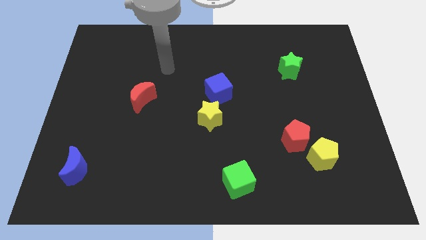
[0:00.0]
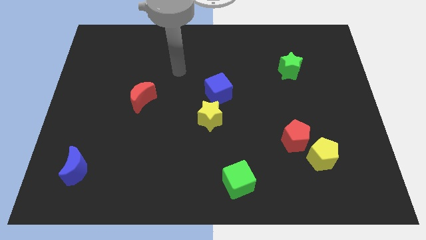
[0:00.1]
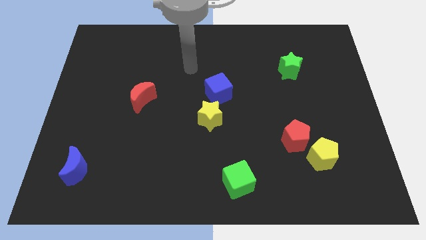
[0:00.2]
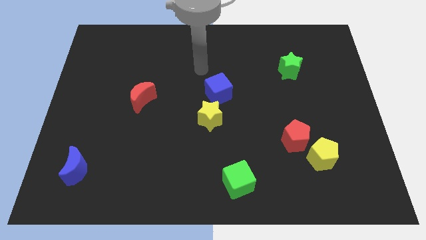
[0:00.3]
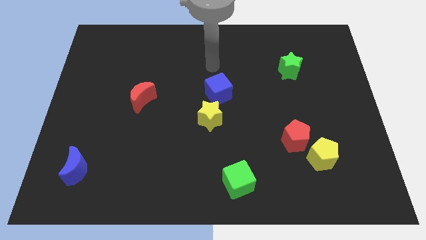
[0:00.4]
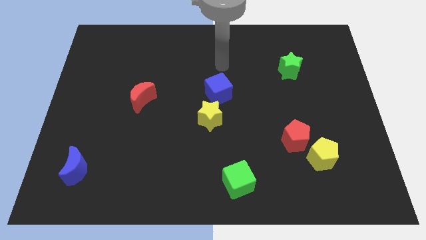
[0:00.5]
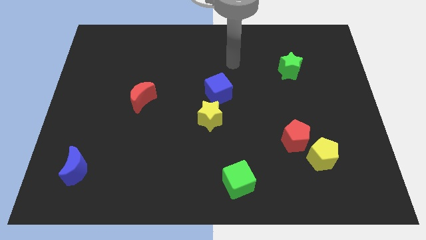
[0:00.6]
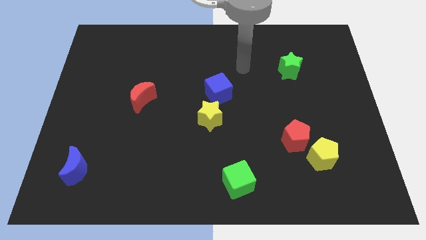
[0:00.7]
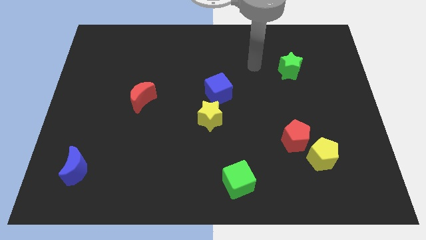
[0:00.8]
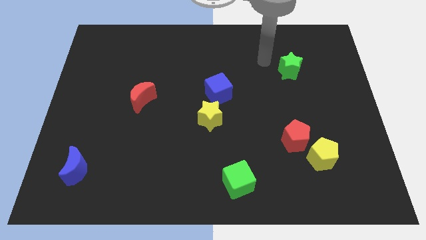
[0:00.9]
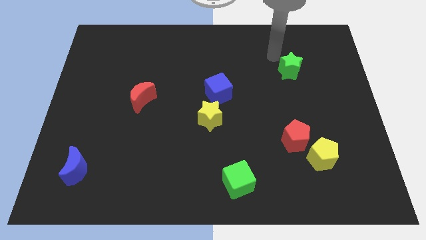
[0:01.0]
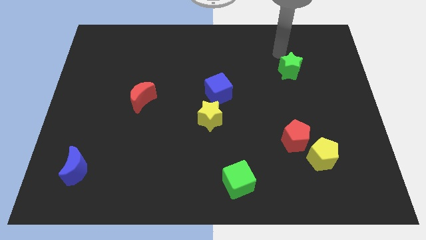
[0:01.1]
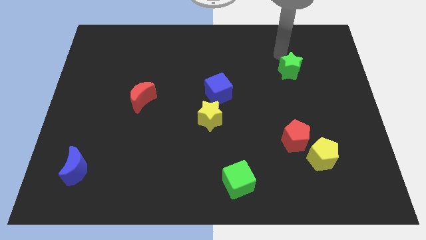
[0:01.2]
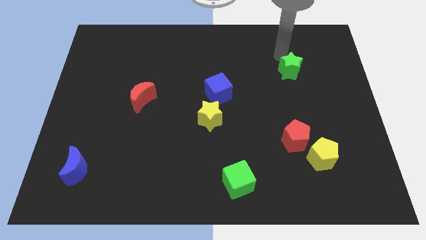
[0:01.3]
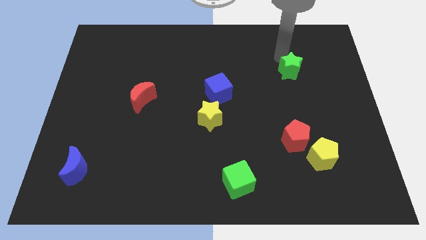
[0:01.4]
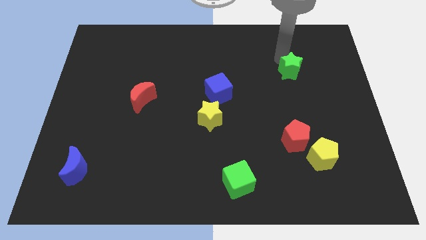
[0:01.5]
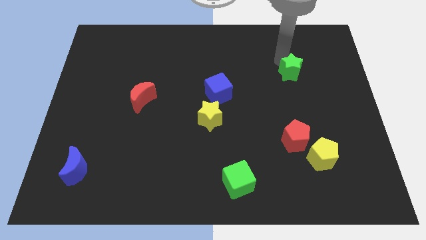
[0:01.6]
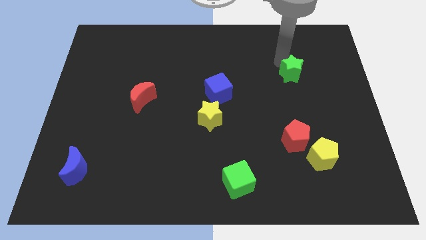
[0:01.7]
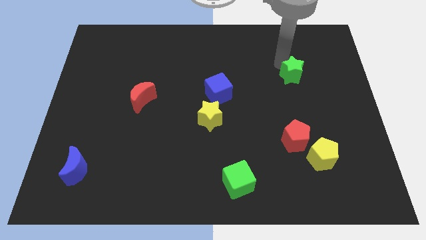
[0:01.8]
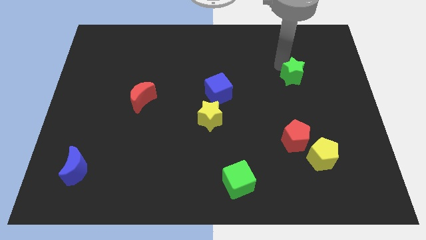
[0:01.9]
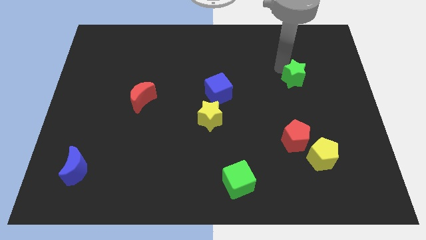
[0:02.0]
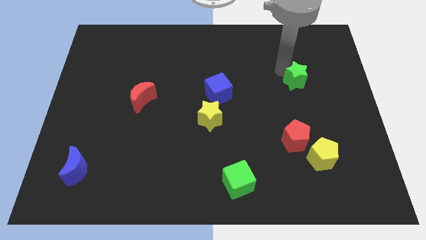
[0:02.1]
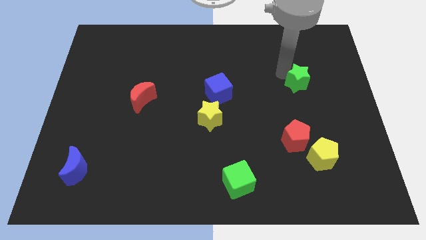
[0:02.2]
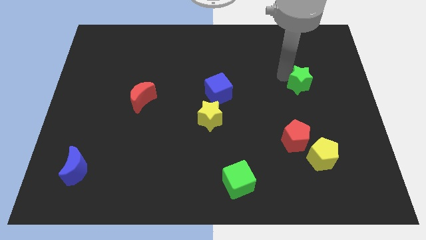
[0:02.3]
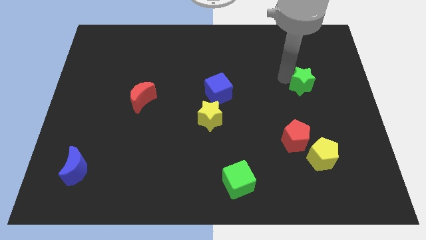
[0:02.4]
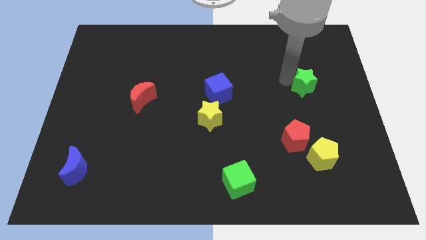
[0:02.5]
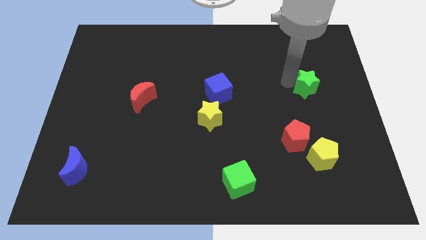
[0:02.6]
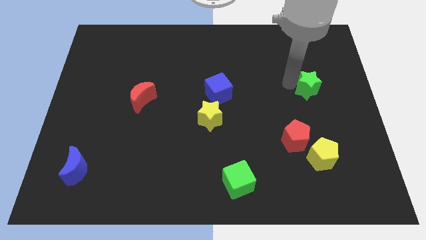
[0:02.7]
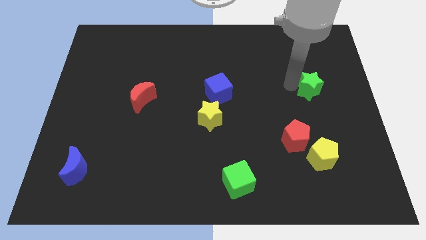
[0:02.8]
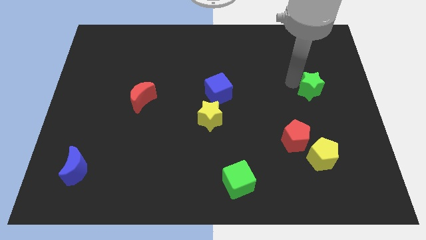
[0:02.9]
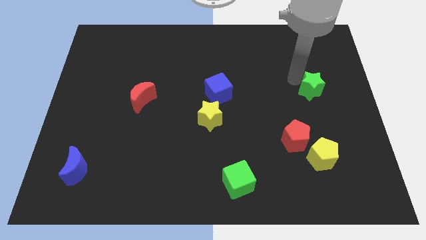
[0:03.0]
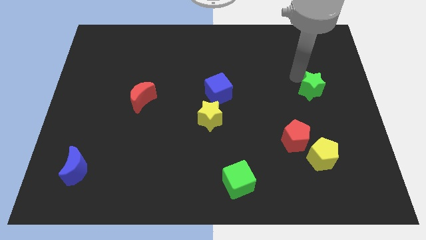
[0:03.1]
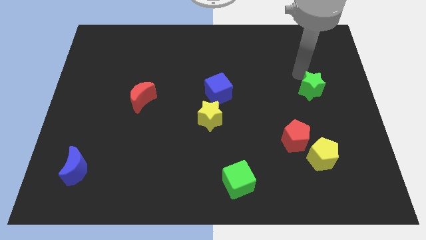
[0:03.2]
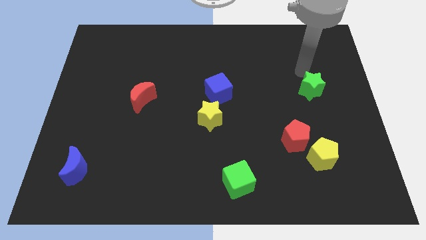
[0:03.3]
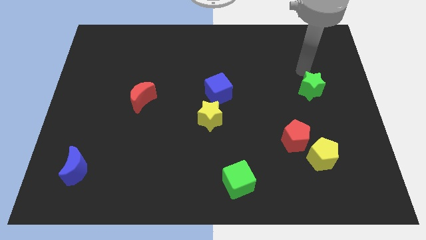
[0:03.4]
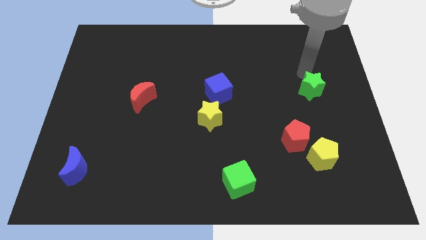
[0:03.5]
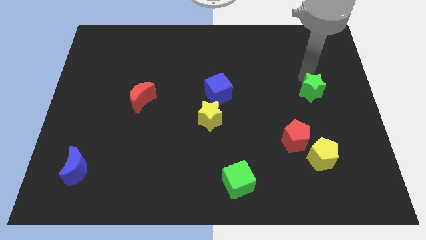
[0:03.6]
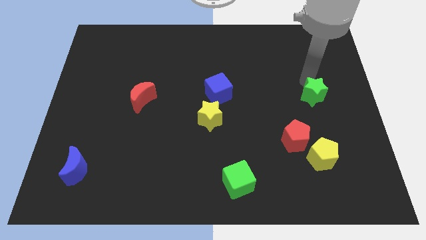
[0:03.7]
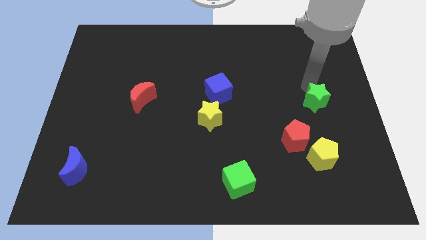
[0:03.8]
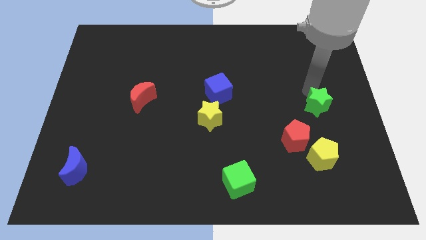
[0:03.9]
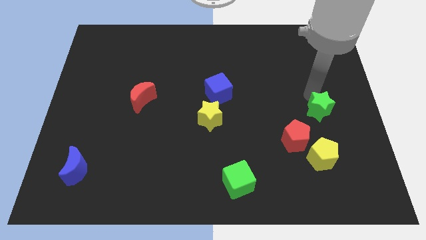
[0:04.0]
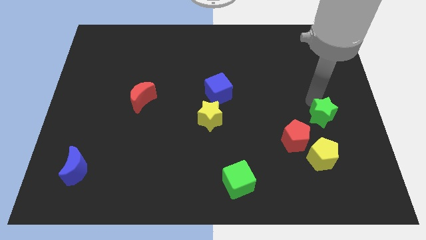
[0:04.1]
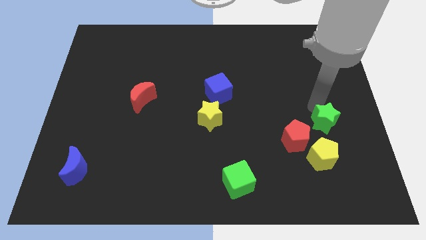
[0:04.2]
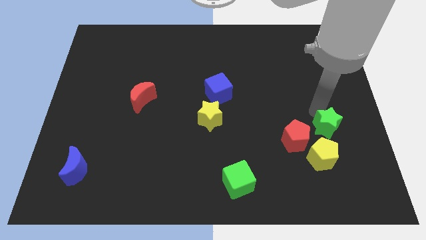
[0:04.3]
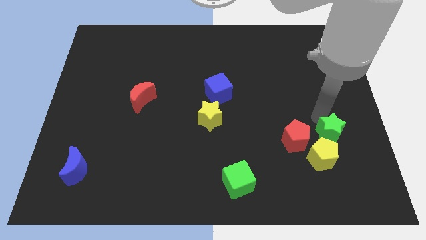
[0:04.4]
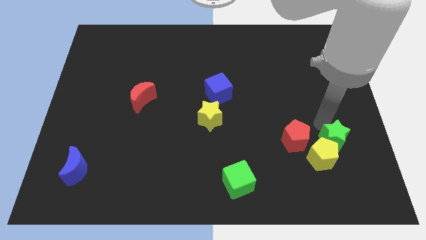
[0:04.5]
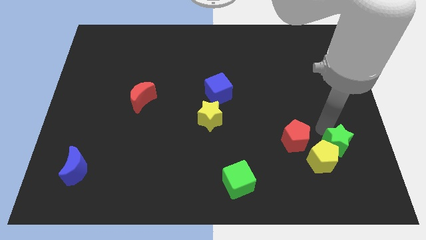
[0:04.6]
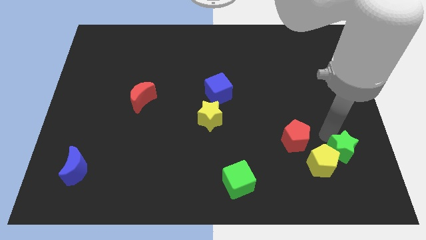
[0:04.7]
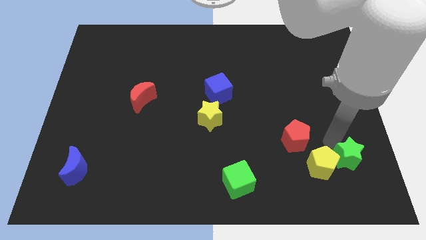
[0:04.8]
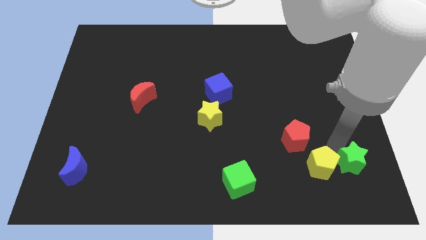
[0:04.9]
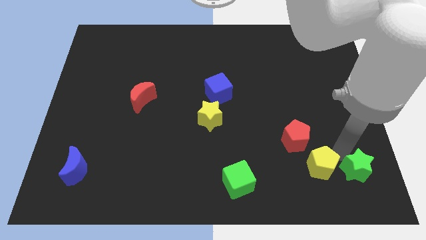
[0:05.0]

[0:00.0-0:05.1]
move the green star to the bottom right of the board

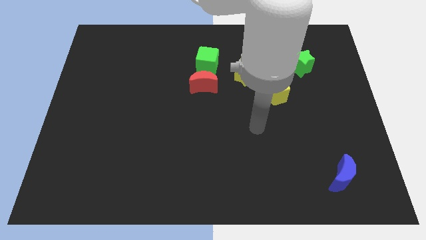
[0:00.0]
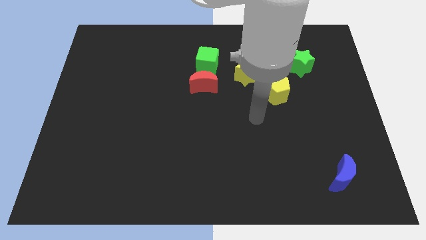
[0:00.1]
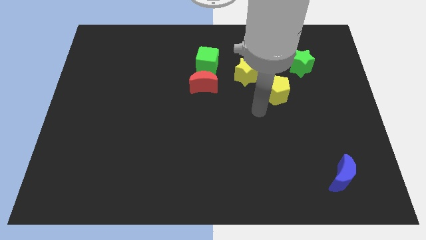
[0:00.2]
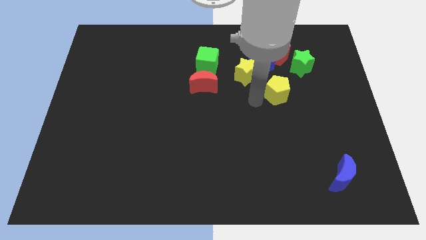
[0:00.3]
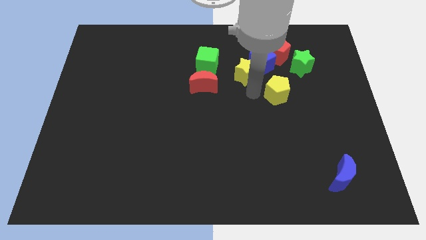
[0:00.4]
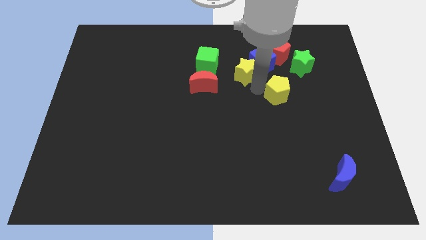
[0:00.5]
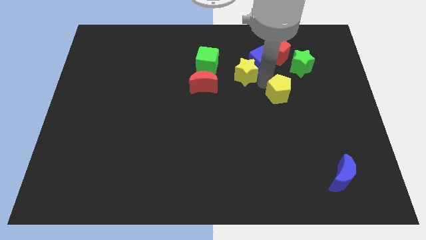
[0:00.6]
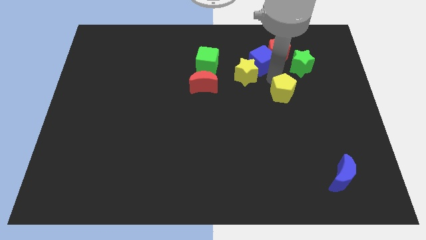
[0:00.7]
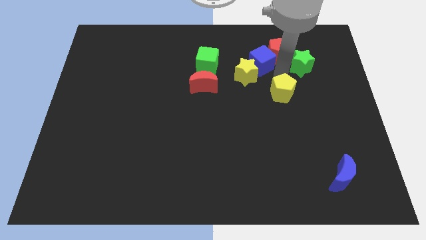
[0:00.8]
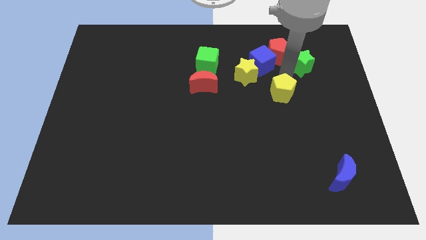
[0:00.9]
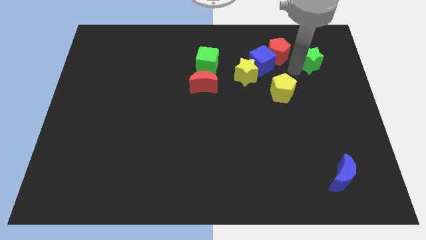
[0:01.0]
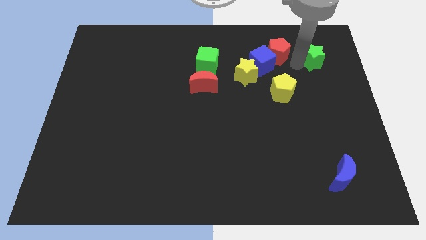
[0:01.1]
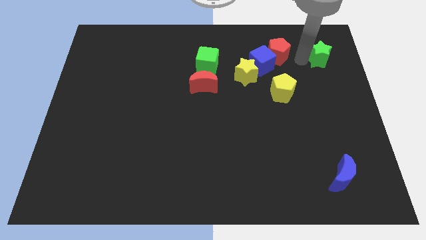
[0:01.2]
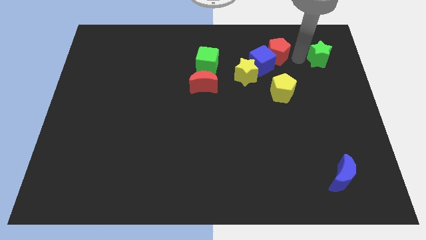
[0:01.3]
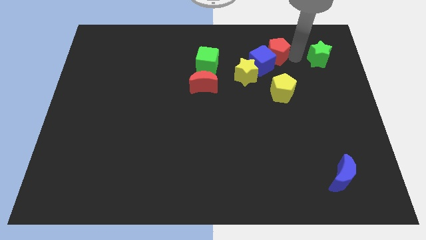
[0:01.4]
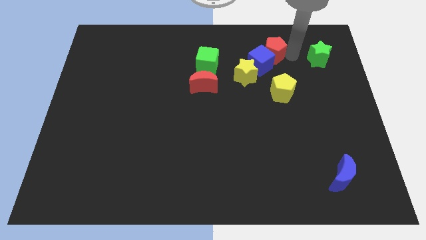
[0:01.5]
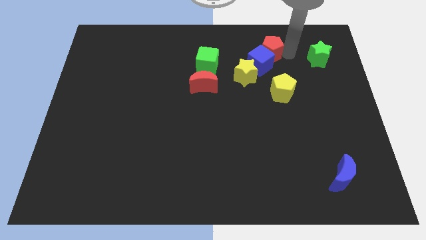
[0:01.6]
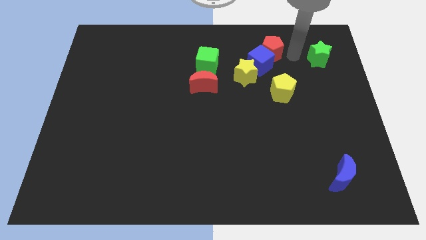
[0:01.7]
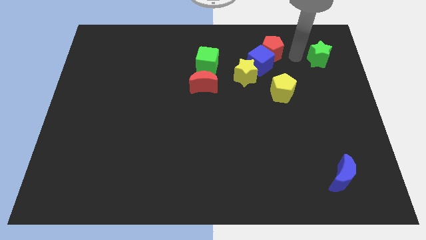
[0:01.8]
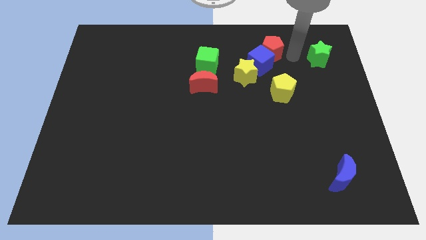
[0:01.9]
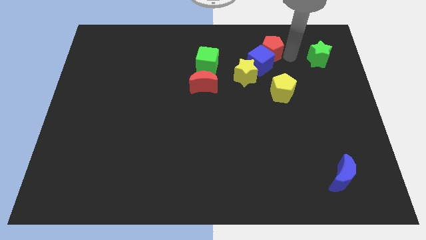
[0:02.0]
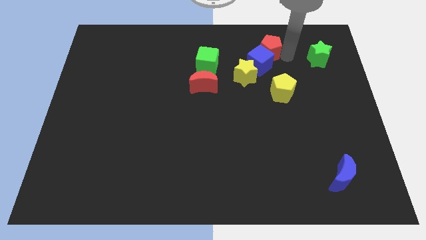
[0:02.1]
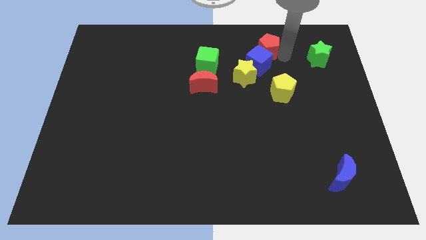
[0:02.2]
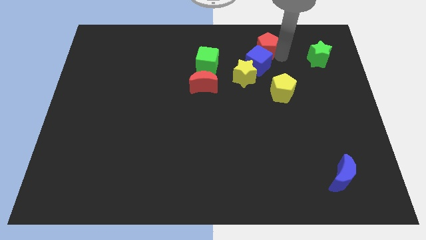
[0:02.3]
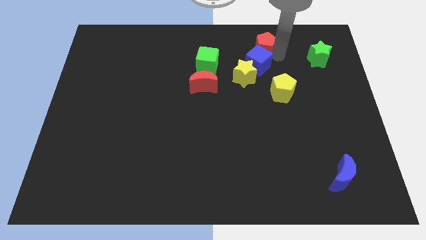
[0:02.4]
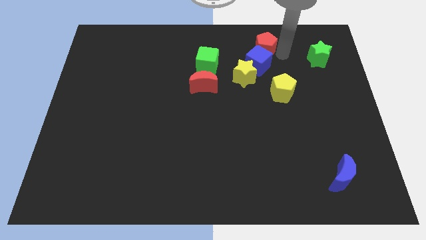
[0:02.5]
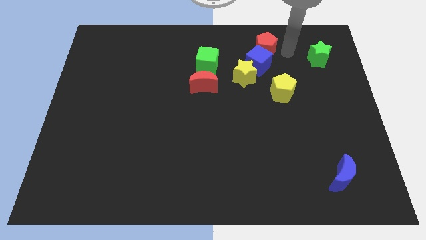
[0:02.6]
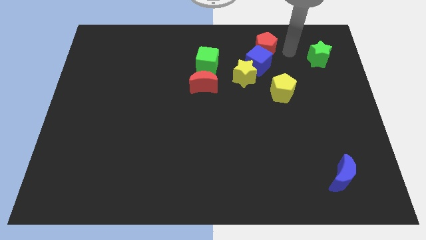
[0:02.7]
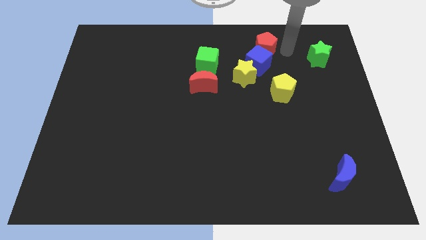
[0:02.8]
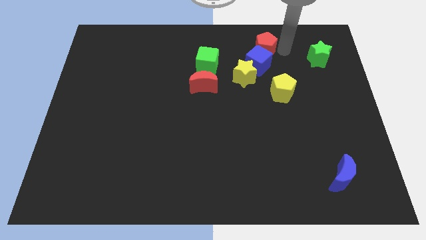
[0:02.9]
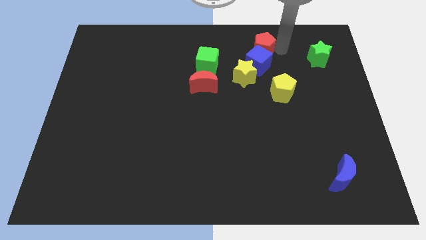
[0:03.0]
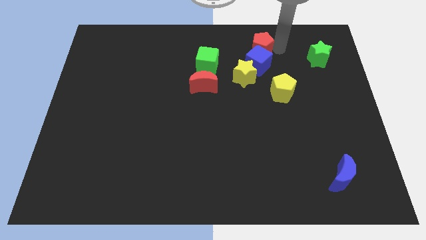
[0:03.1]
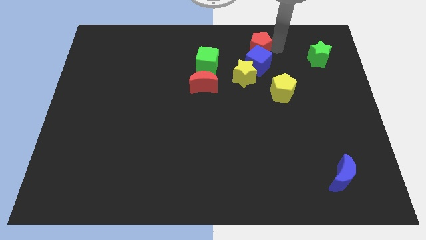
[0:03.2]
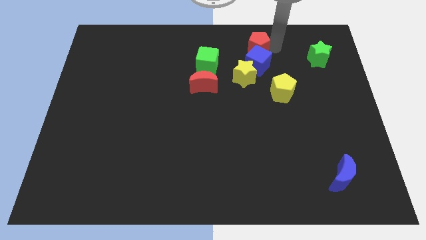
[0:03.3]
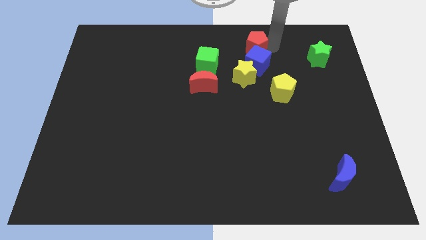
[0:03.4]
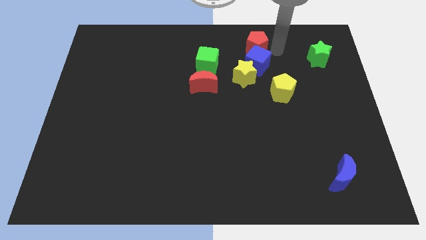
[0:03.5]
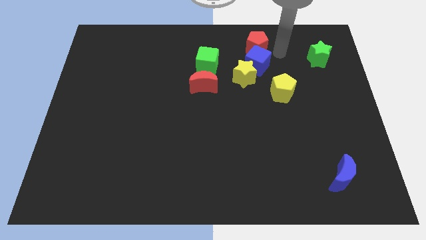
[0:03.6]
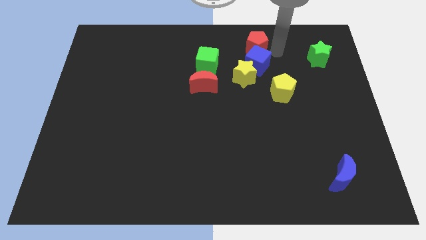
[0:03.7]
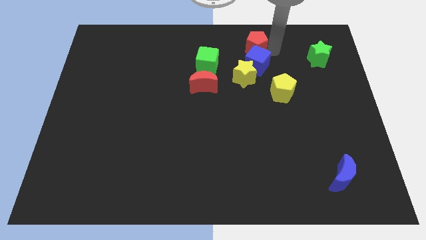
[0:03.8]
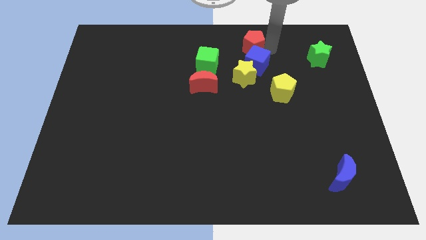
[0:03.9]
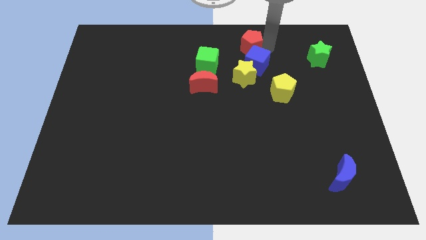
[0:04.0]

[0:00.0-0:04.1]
slide the red pentagon to the top side
